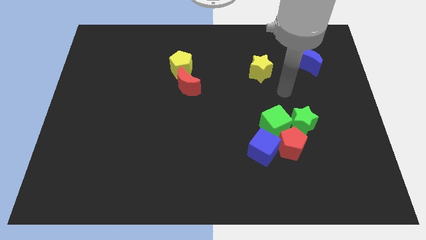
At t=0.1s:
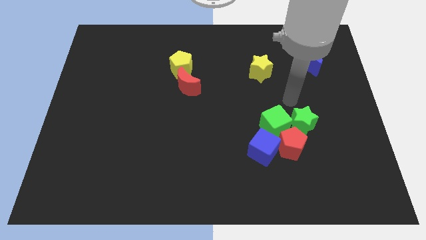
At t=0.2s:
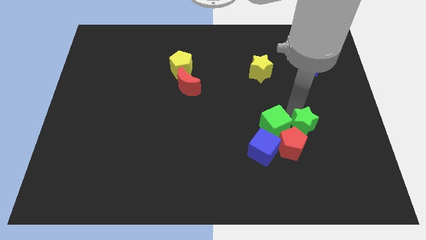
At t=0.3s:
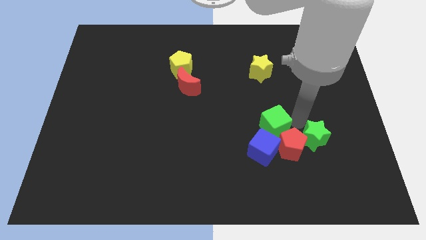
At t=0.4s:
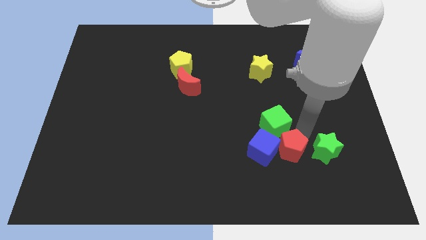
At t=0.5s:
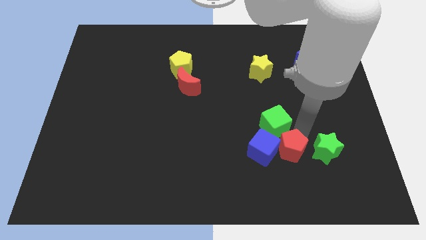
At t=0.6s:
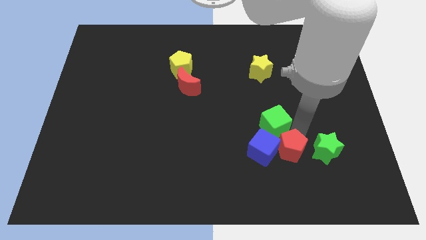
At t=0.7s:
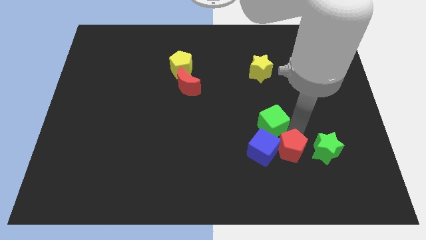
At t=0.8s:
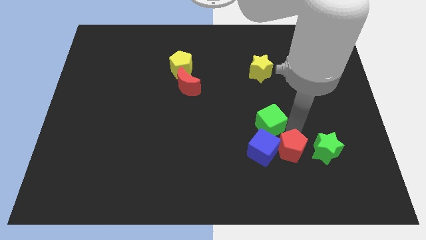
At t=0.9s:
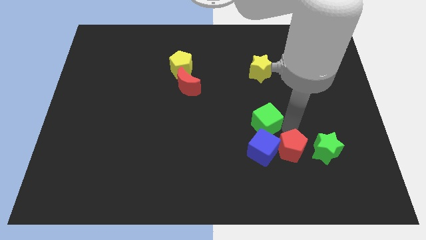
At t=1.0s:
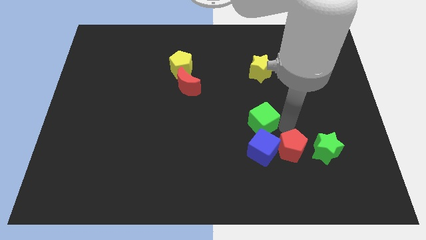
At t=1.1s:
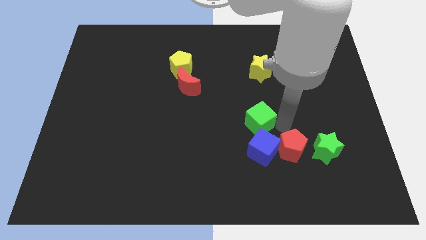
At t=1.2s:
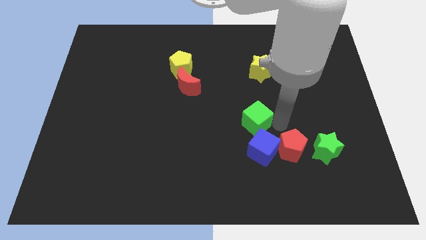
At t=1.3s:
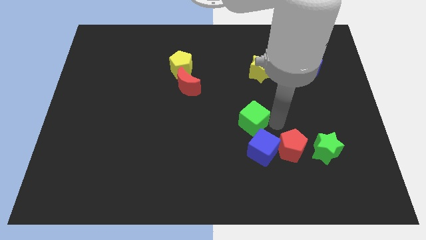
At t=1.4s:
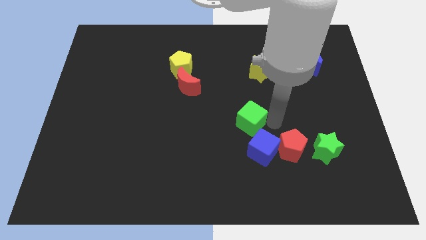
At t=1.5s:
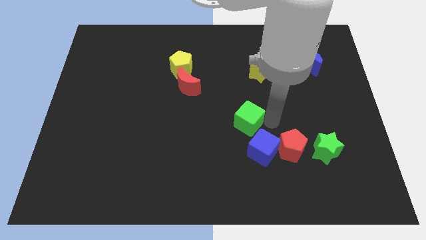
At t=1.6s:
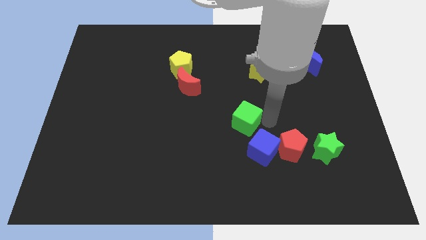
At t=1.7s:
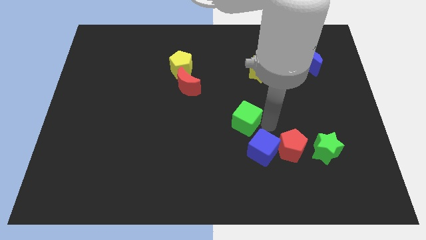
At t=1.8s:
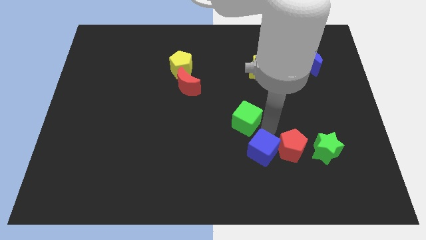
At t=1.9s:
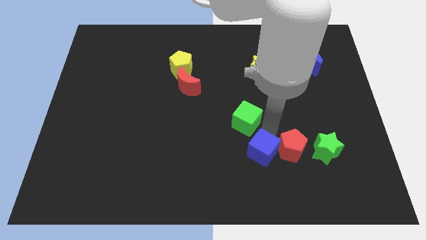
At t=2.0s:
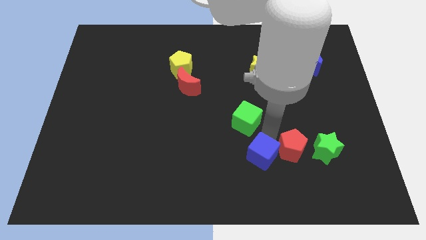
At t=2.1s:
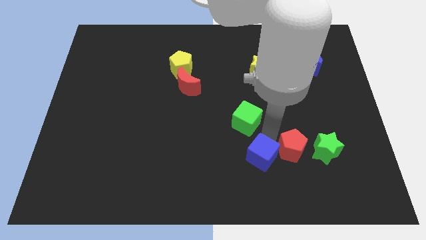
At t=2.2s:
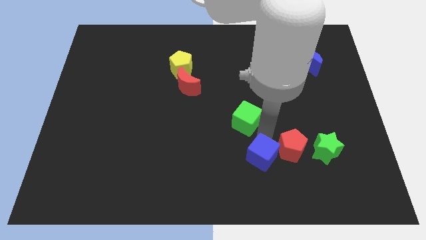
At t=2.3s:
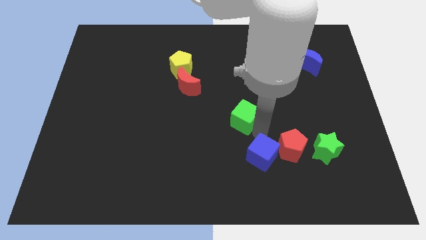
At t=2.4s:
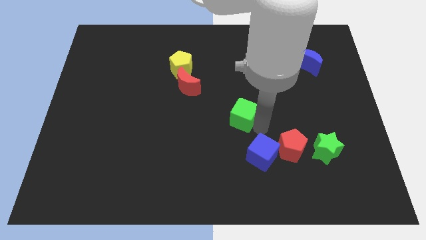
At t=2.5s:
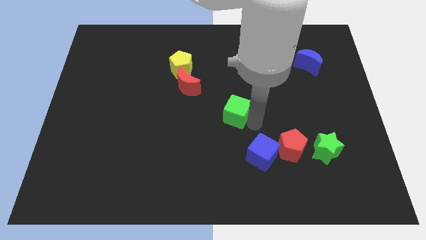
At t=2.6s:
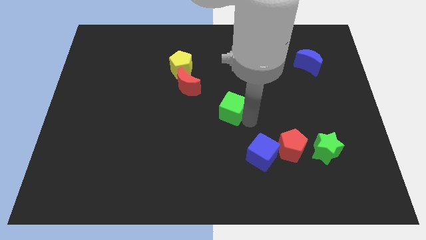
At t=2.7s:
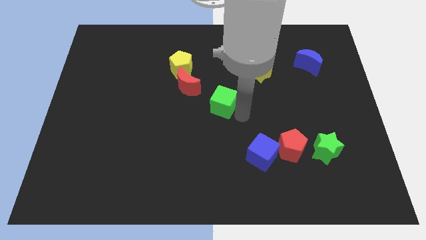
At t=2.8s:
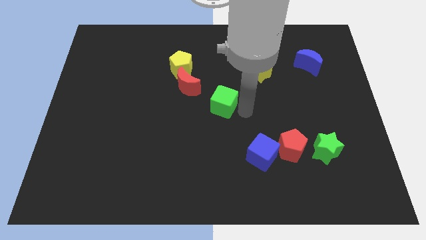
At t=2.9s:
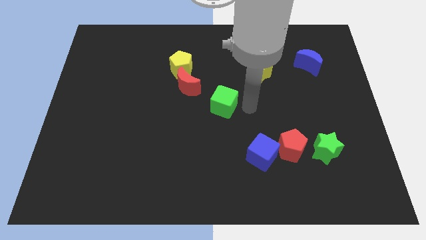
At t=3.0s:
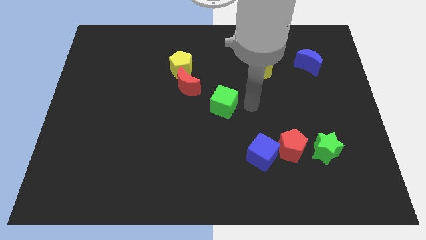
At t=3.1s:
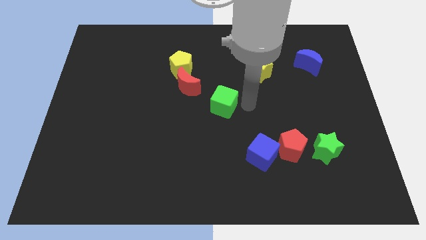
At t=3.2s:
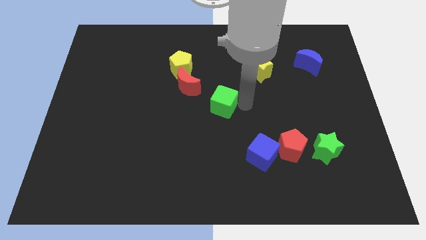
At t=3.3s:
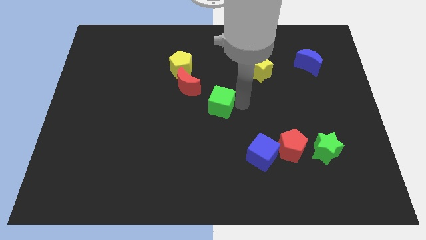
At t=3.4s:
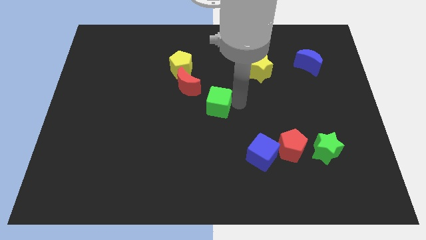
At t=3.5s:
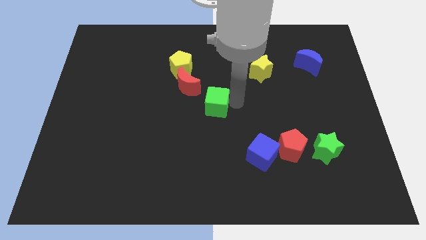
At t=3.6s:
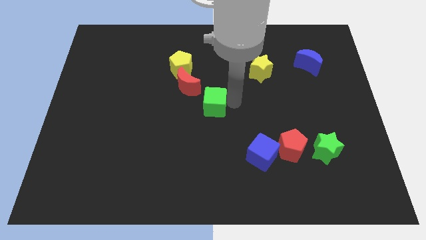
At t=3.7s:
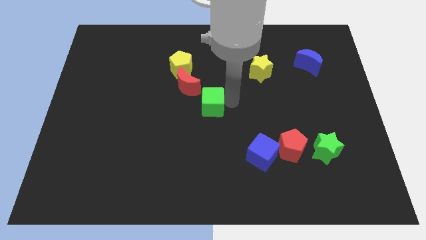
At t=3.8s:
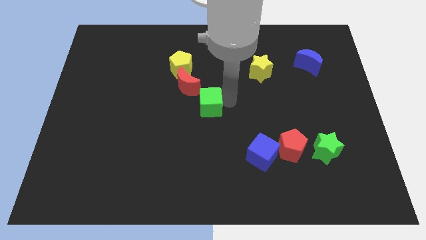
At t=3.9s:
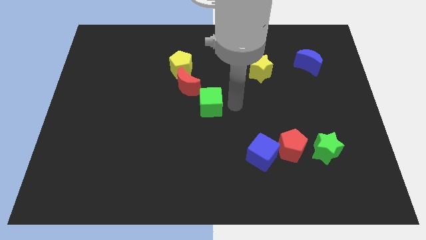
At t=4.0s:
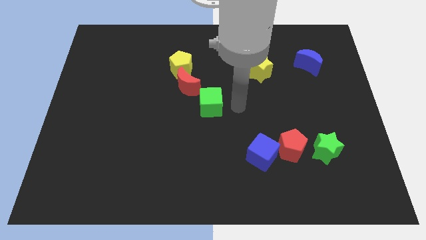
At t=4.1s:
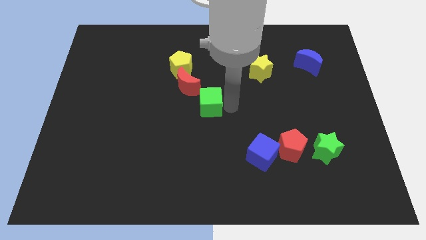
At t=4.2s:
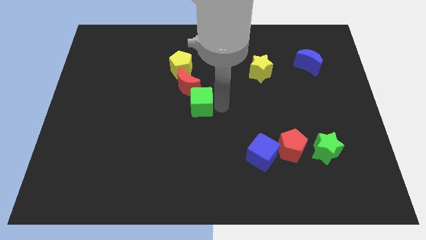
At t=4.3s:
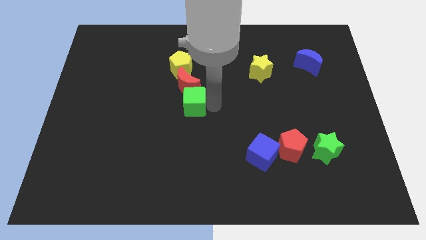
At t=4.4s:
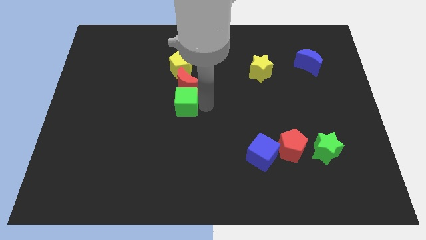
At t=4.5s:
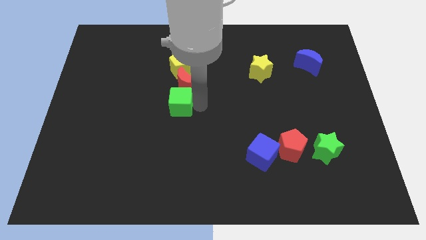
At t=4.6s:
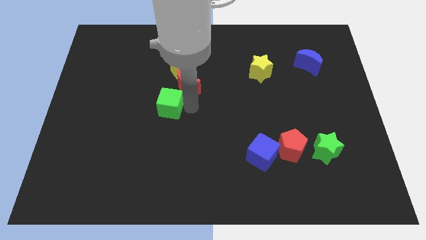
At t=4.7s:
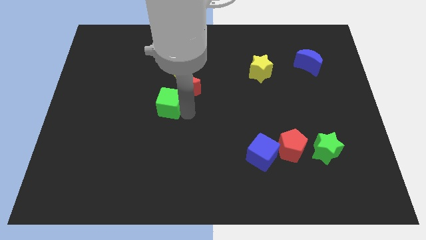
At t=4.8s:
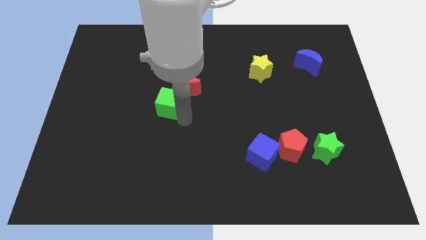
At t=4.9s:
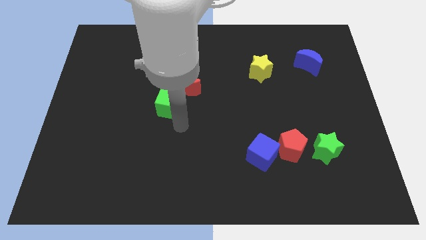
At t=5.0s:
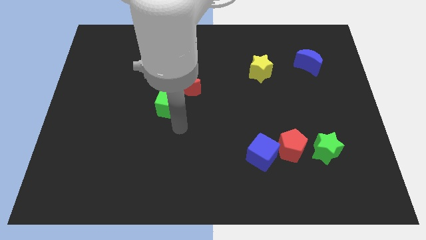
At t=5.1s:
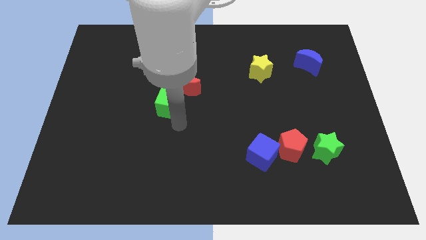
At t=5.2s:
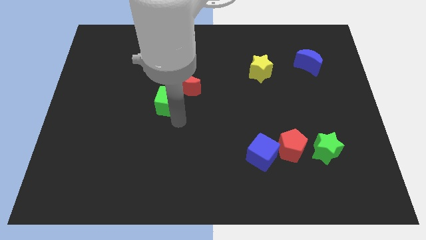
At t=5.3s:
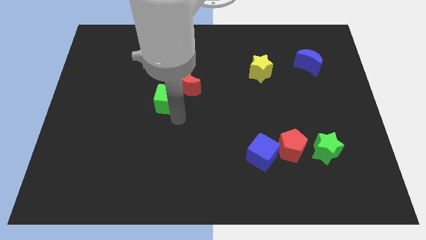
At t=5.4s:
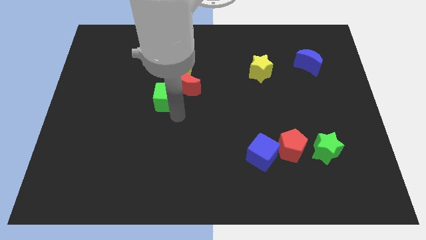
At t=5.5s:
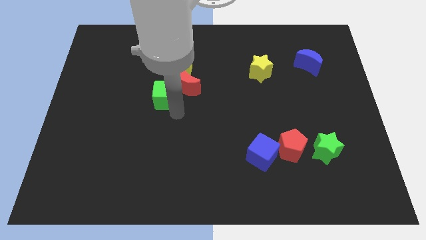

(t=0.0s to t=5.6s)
push the green cube to the bottom left side of the yellow pentagon

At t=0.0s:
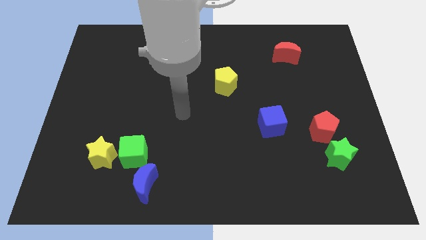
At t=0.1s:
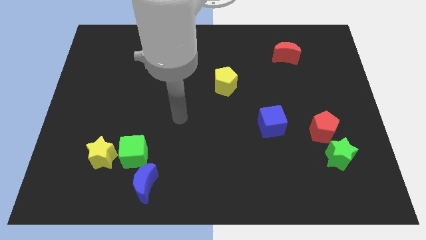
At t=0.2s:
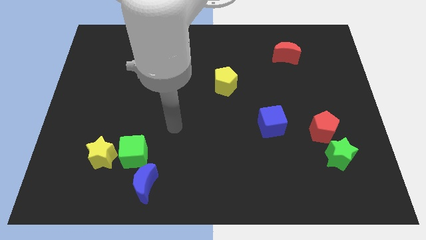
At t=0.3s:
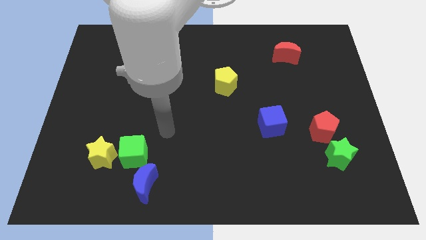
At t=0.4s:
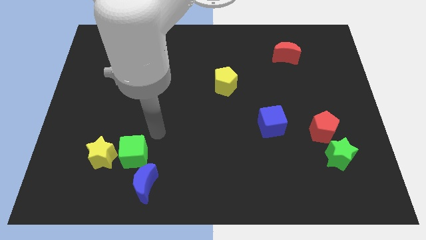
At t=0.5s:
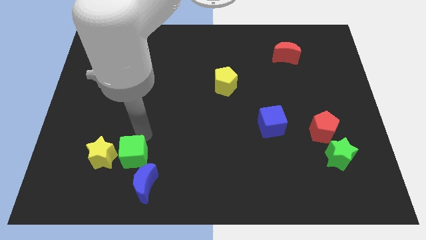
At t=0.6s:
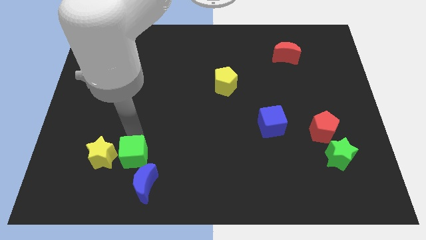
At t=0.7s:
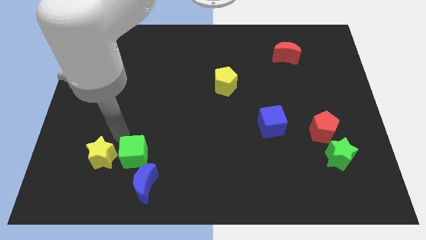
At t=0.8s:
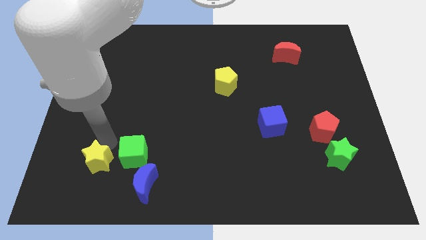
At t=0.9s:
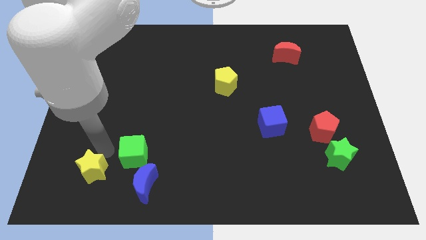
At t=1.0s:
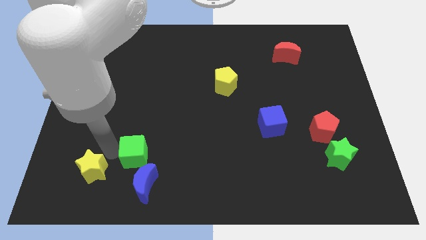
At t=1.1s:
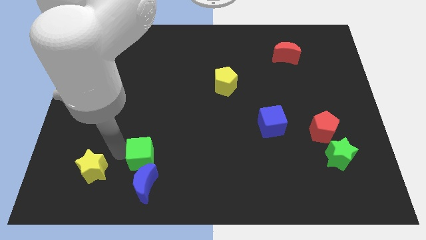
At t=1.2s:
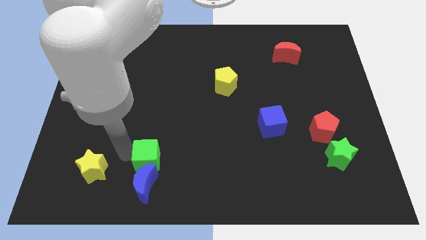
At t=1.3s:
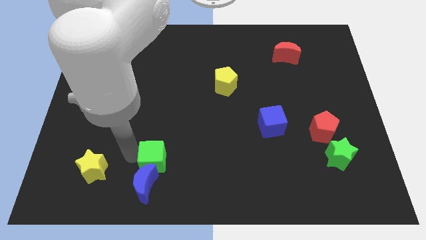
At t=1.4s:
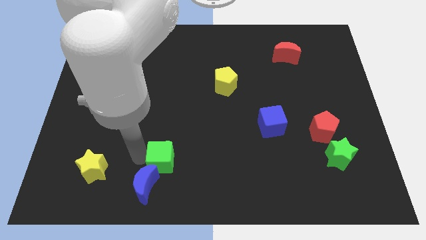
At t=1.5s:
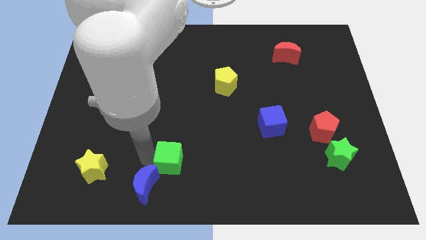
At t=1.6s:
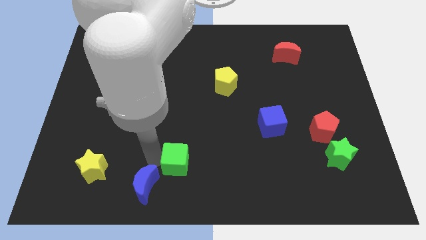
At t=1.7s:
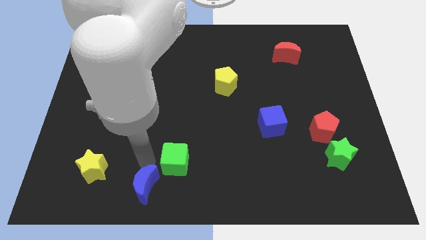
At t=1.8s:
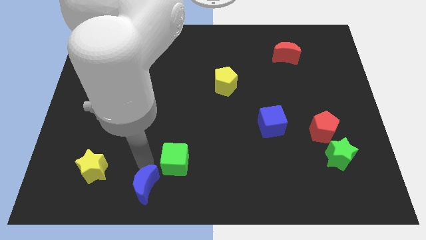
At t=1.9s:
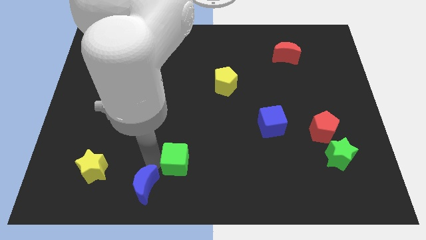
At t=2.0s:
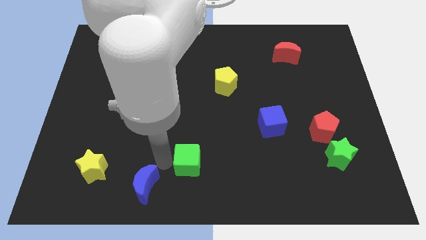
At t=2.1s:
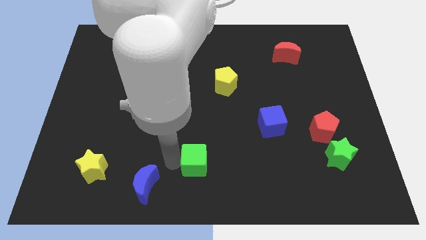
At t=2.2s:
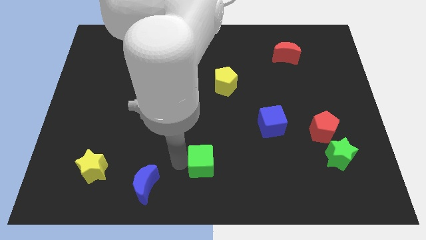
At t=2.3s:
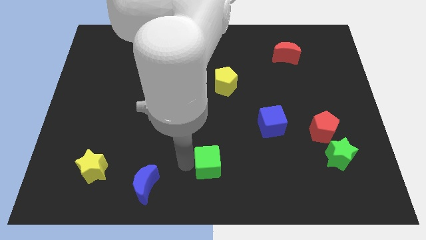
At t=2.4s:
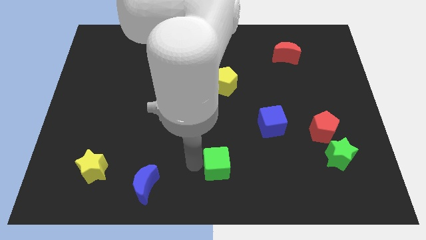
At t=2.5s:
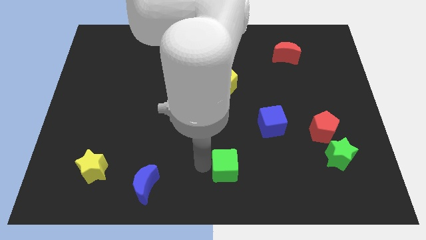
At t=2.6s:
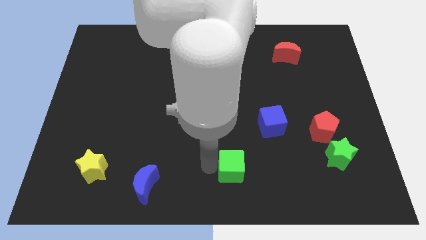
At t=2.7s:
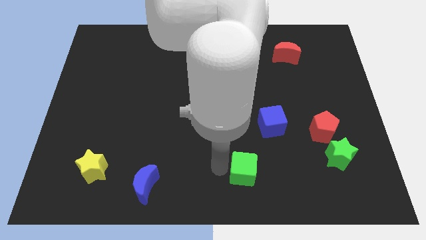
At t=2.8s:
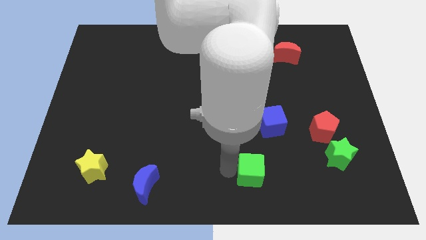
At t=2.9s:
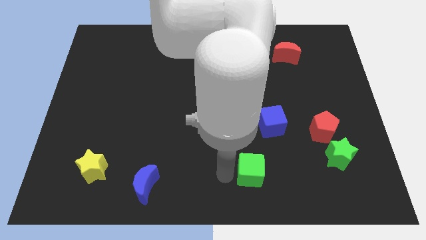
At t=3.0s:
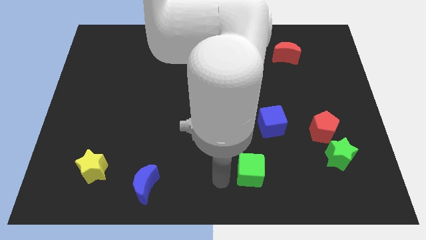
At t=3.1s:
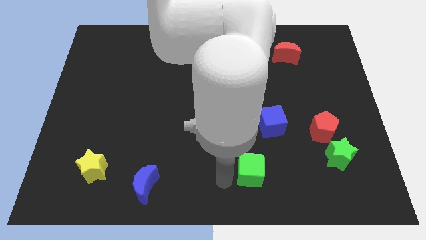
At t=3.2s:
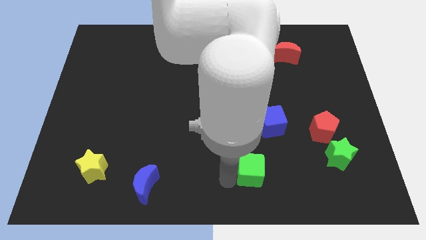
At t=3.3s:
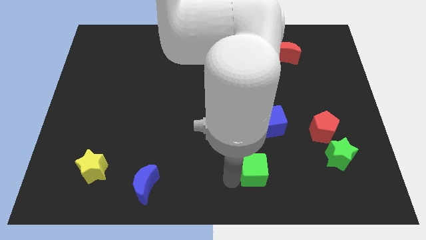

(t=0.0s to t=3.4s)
put the green cube to the bottom of the blue cube
